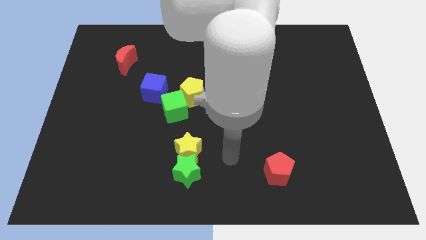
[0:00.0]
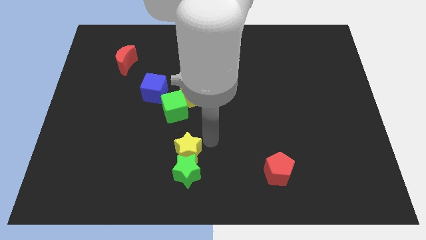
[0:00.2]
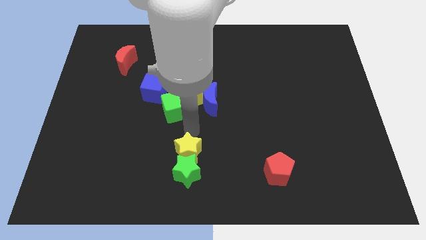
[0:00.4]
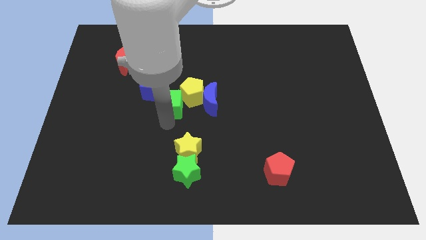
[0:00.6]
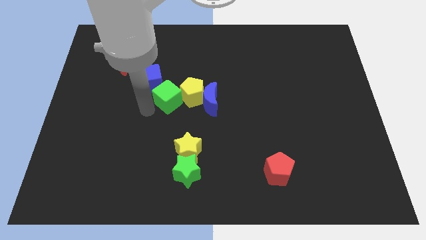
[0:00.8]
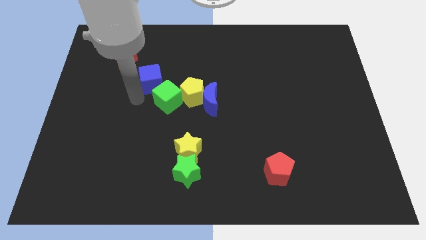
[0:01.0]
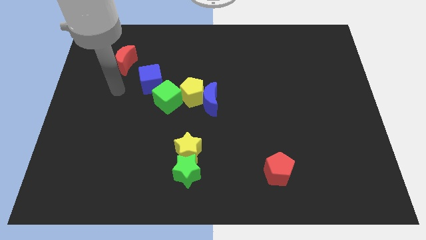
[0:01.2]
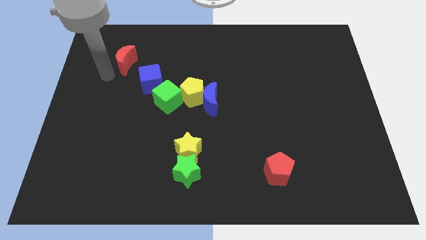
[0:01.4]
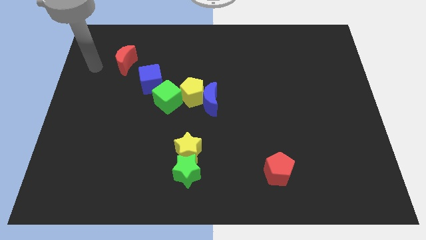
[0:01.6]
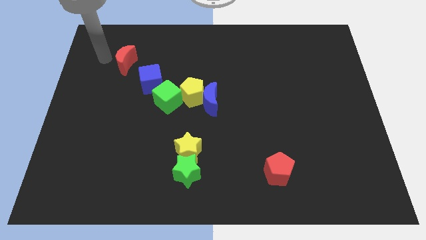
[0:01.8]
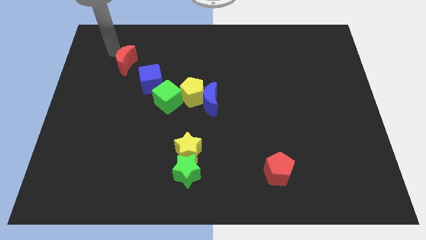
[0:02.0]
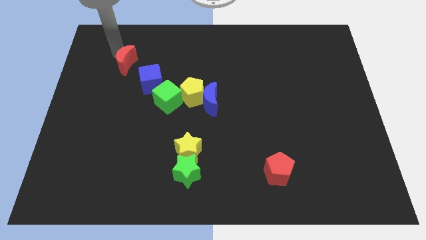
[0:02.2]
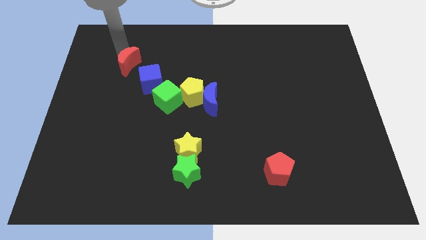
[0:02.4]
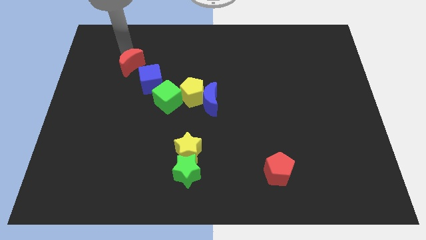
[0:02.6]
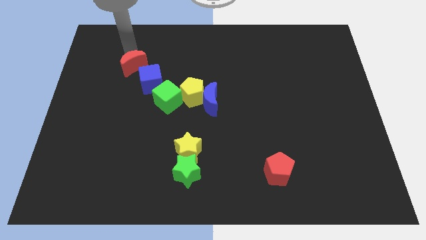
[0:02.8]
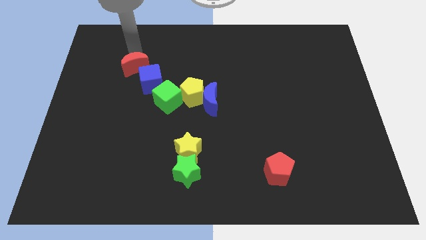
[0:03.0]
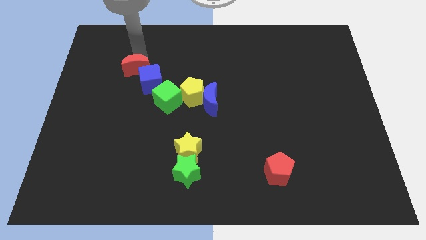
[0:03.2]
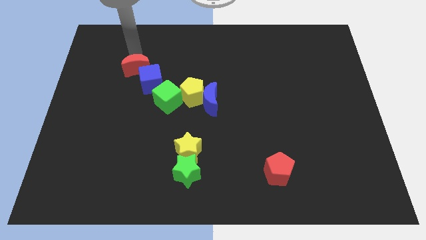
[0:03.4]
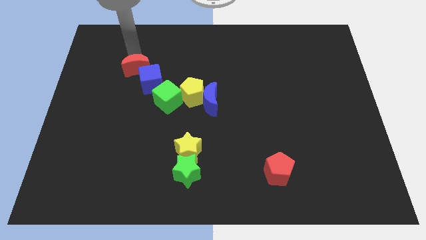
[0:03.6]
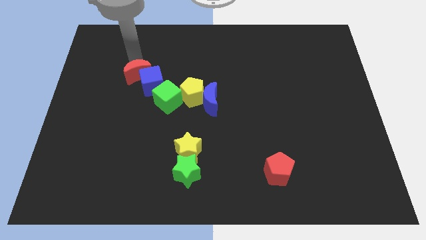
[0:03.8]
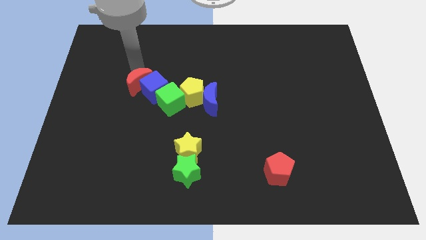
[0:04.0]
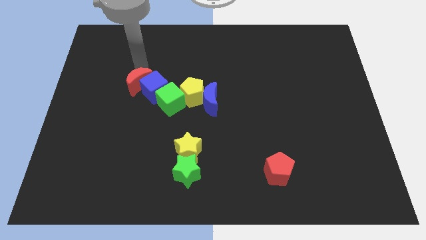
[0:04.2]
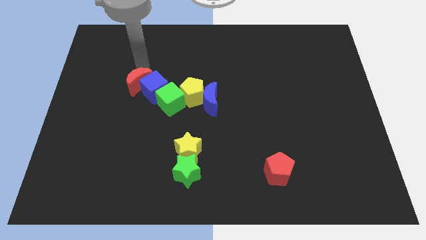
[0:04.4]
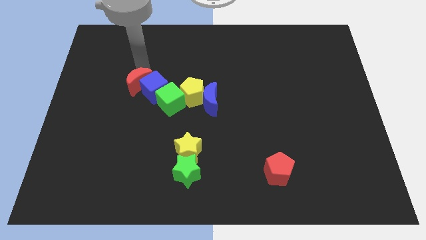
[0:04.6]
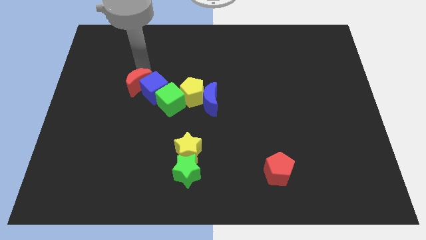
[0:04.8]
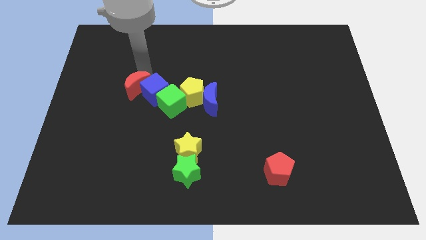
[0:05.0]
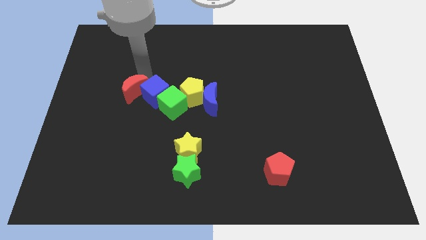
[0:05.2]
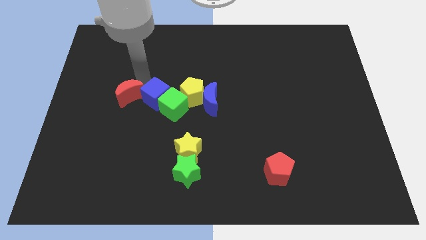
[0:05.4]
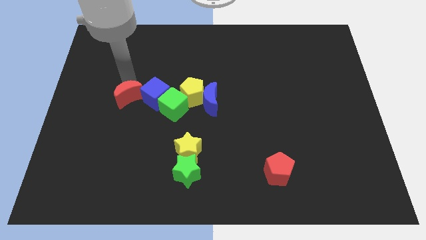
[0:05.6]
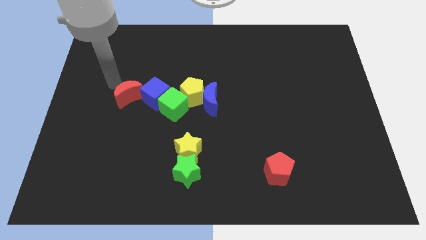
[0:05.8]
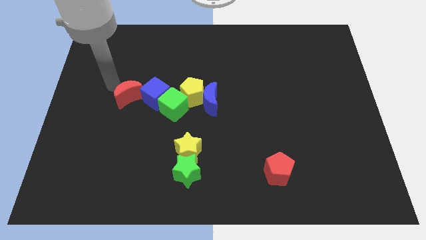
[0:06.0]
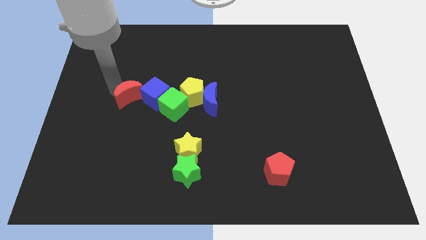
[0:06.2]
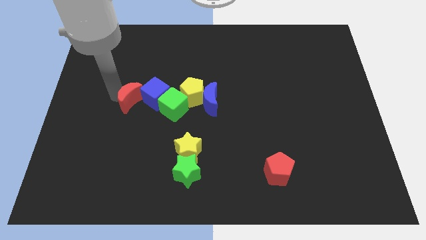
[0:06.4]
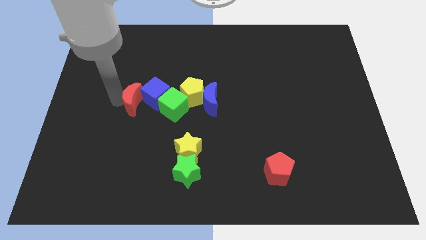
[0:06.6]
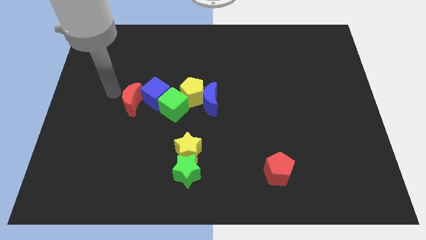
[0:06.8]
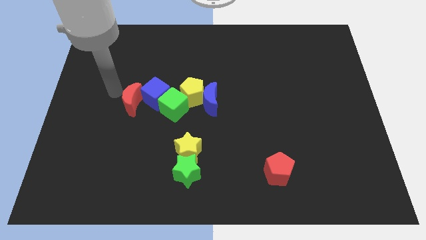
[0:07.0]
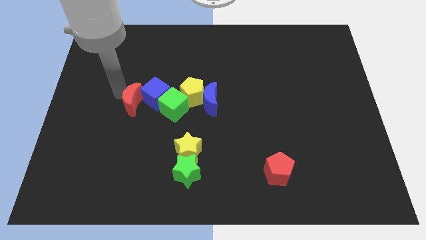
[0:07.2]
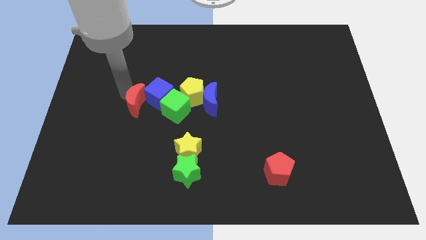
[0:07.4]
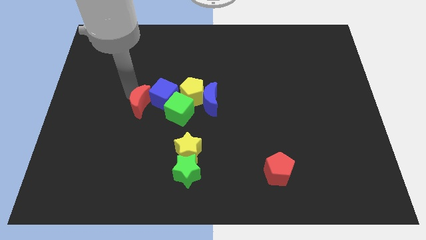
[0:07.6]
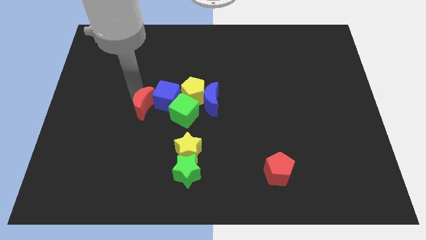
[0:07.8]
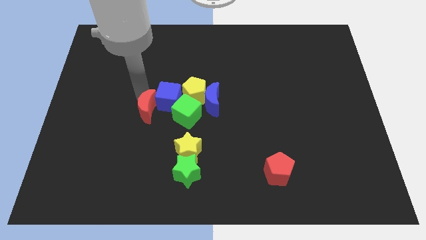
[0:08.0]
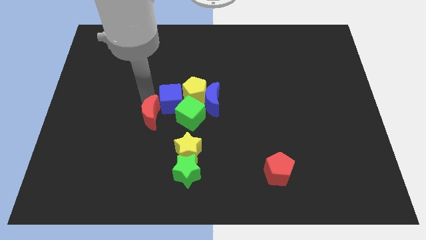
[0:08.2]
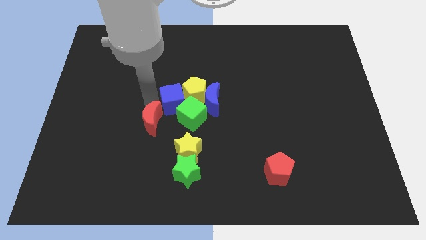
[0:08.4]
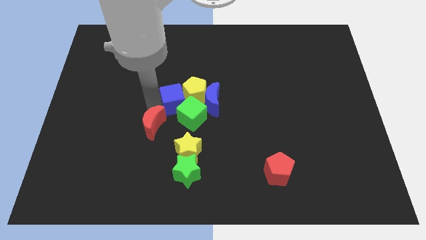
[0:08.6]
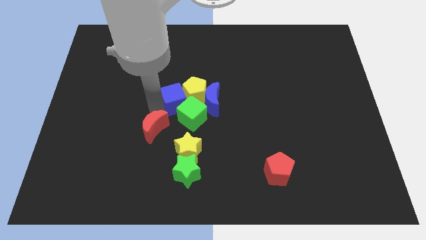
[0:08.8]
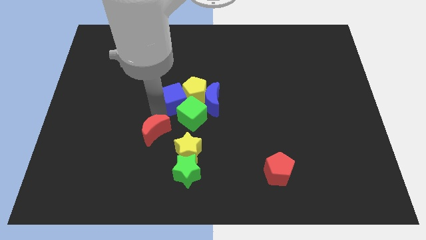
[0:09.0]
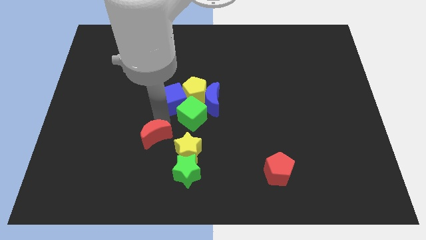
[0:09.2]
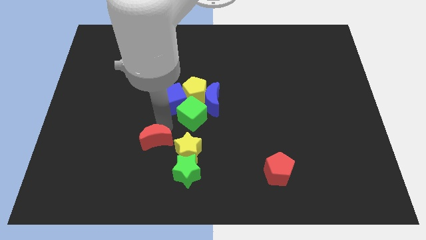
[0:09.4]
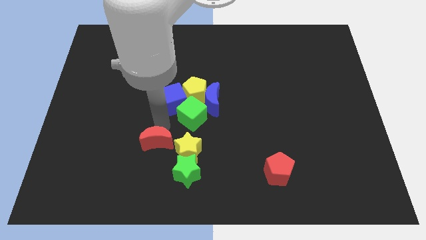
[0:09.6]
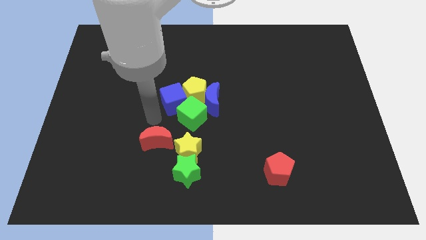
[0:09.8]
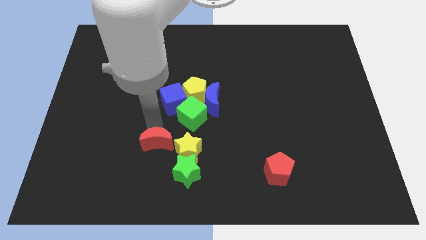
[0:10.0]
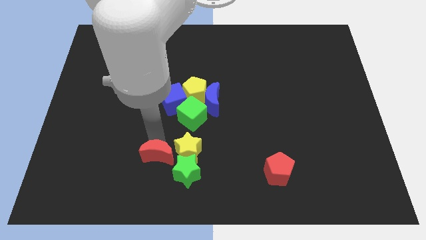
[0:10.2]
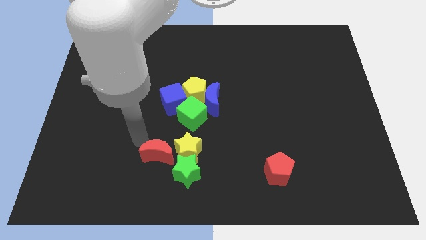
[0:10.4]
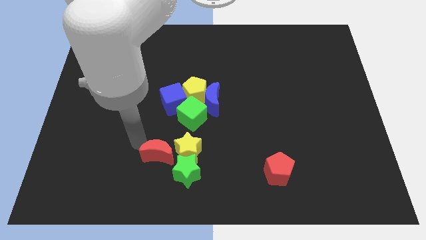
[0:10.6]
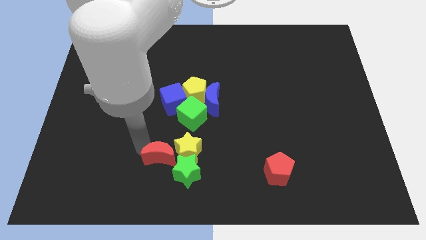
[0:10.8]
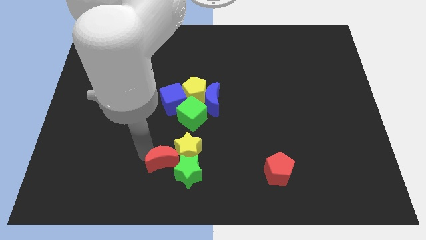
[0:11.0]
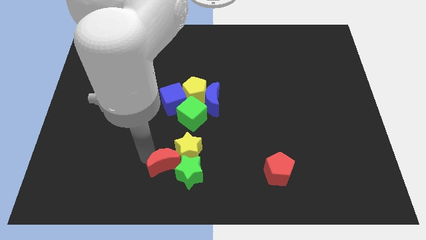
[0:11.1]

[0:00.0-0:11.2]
put the red moon next to the green star

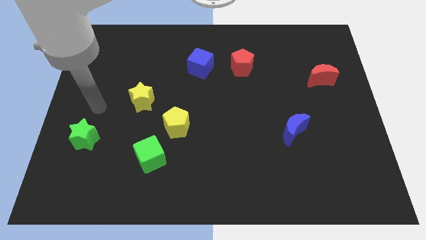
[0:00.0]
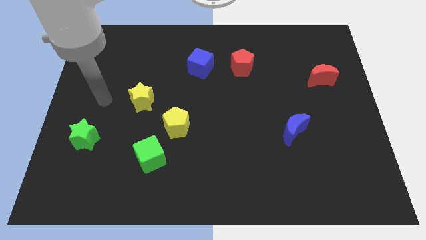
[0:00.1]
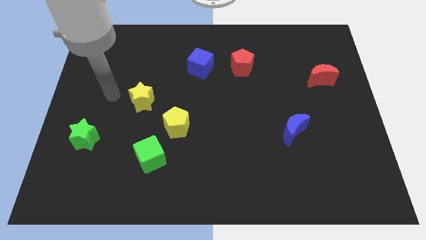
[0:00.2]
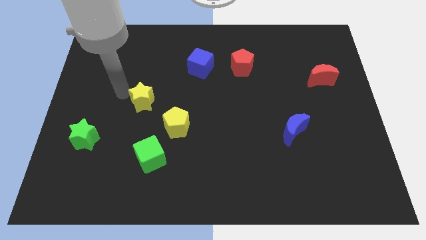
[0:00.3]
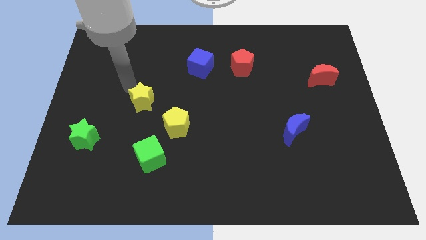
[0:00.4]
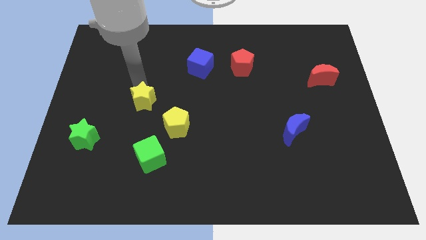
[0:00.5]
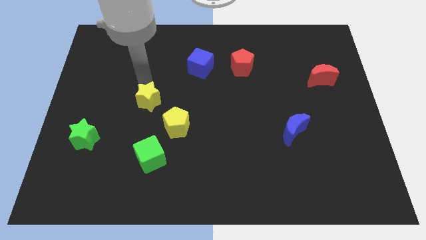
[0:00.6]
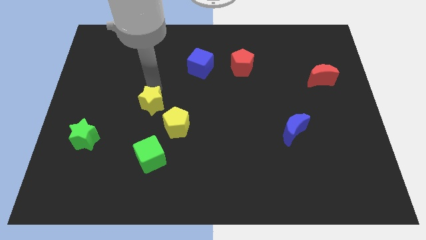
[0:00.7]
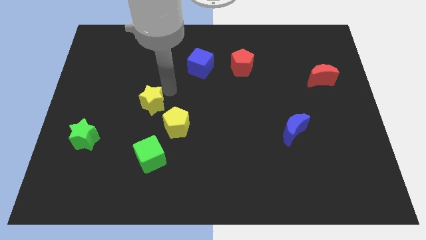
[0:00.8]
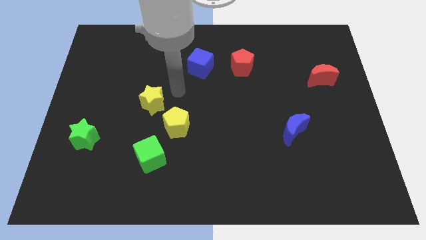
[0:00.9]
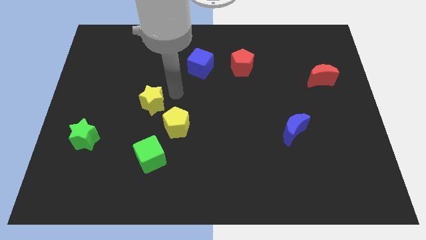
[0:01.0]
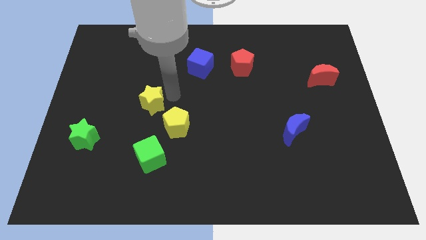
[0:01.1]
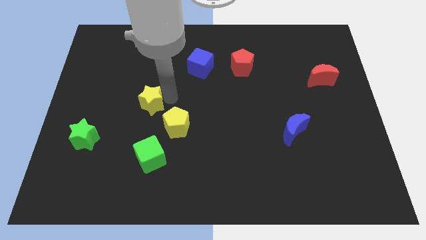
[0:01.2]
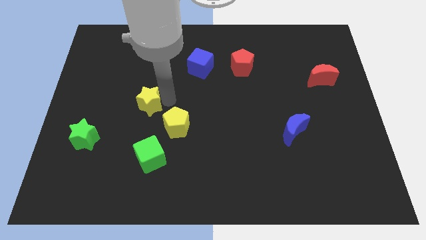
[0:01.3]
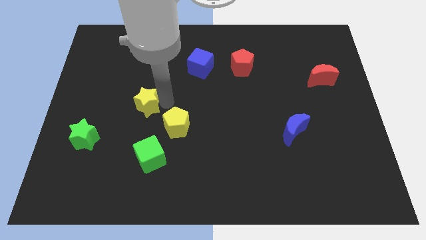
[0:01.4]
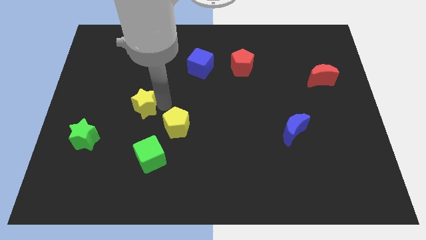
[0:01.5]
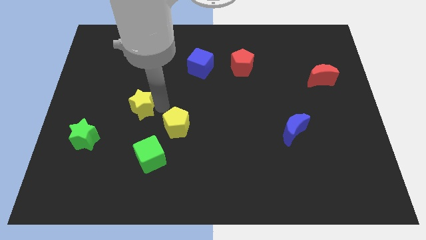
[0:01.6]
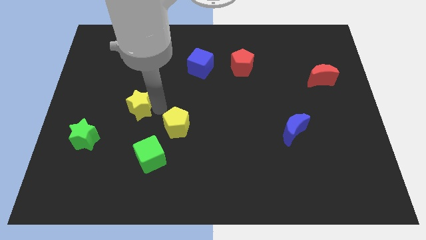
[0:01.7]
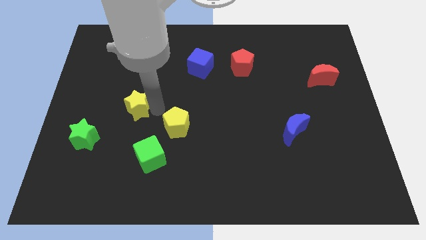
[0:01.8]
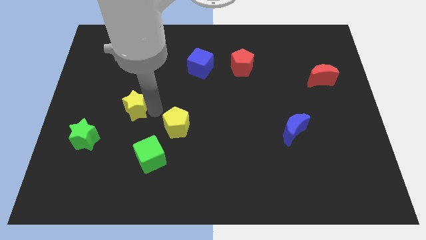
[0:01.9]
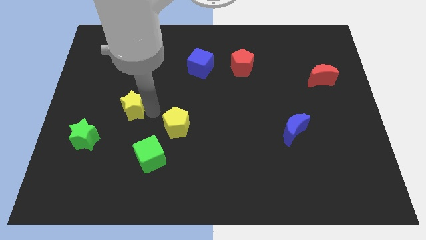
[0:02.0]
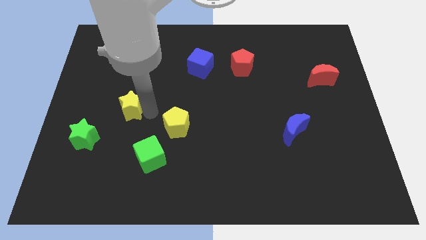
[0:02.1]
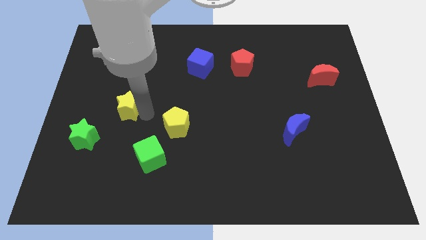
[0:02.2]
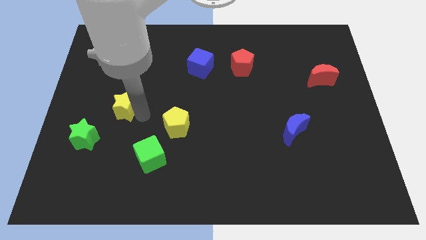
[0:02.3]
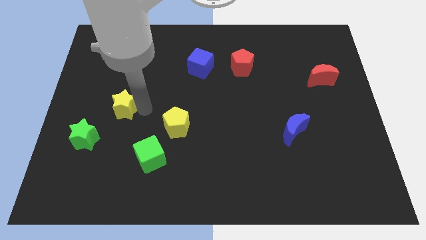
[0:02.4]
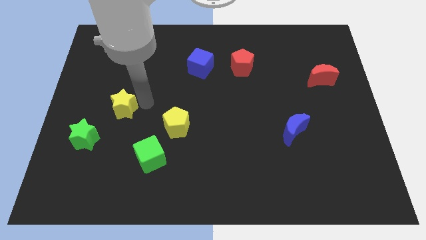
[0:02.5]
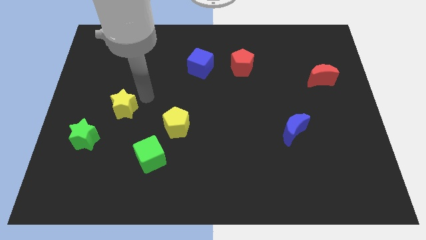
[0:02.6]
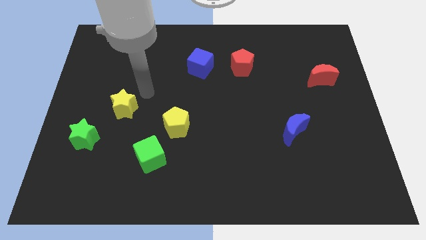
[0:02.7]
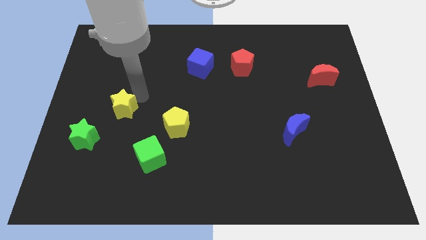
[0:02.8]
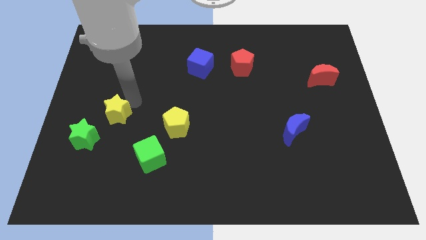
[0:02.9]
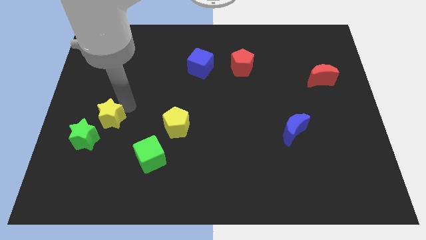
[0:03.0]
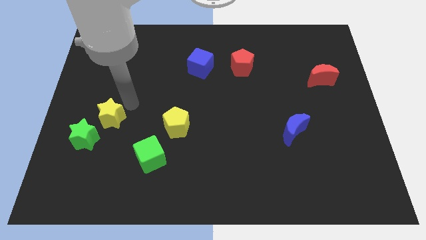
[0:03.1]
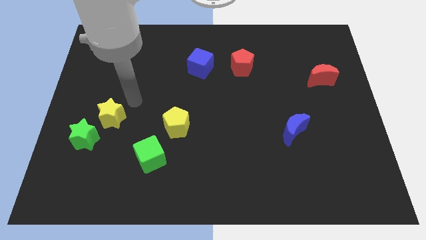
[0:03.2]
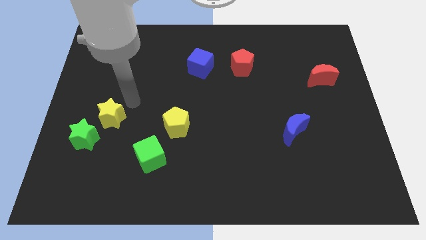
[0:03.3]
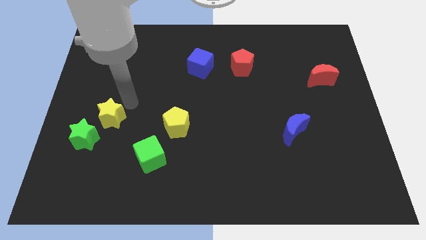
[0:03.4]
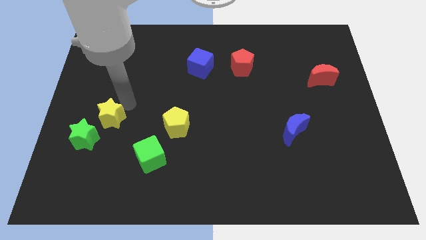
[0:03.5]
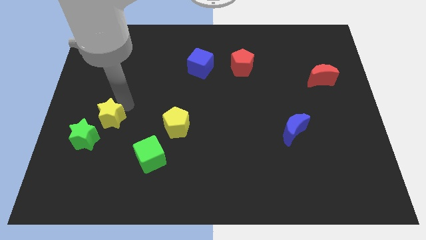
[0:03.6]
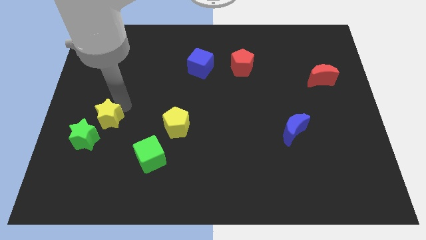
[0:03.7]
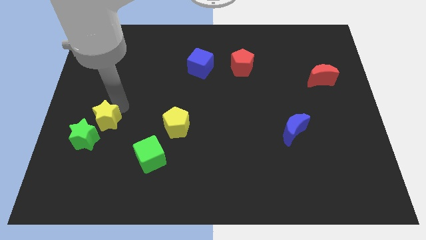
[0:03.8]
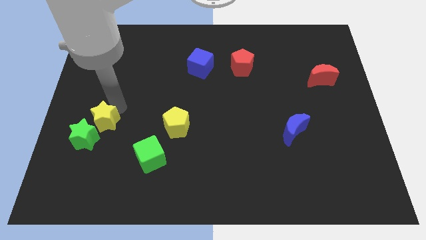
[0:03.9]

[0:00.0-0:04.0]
put the yellow star towards the green star
